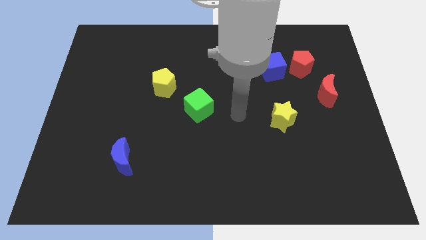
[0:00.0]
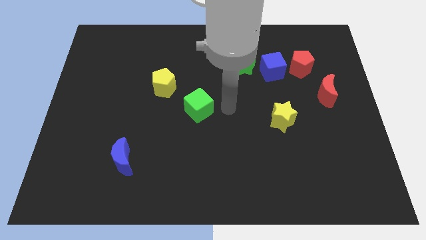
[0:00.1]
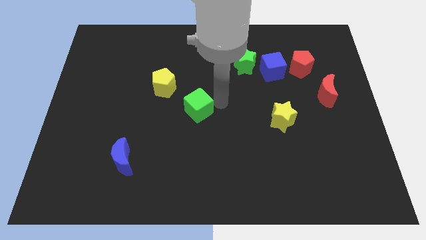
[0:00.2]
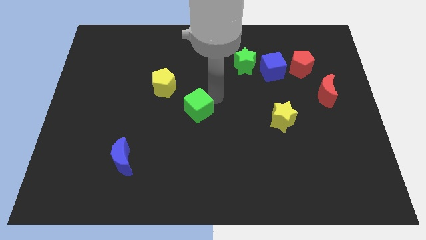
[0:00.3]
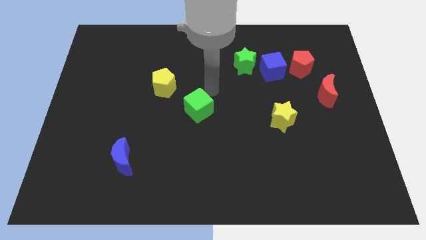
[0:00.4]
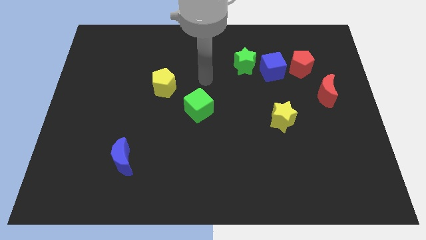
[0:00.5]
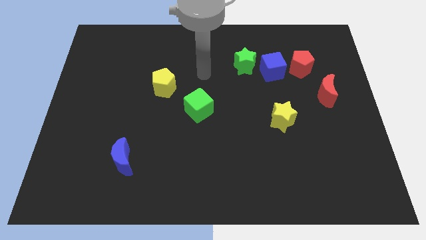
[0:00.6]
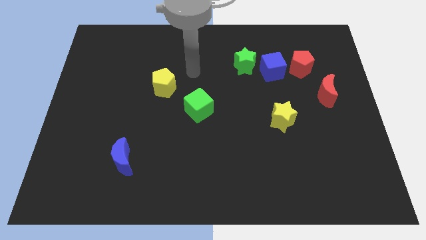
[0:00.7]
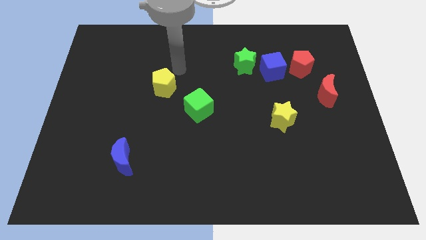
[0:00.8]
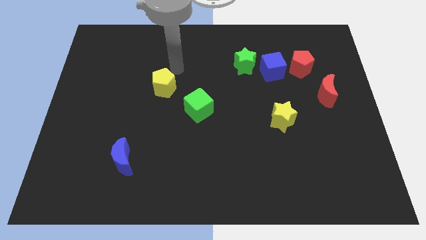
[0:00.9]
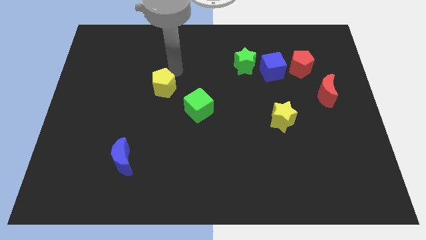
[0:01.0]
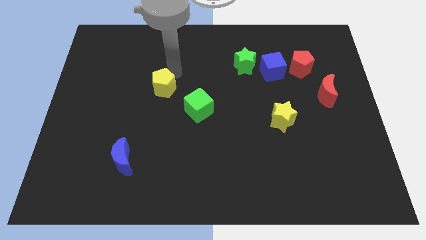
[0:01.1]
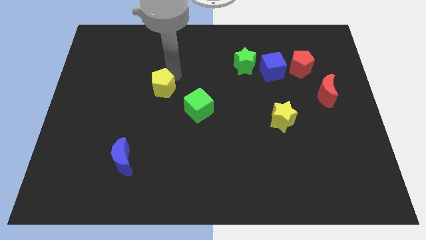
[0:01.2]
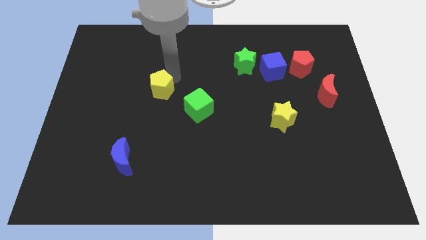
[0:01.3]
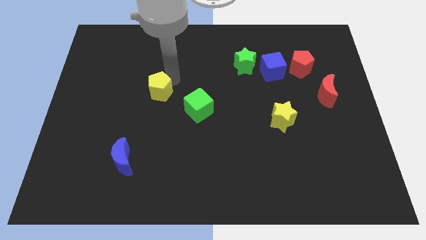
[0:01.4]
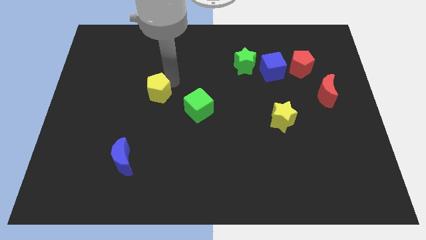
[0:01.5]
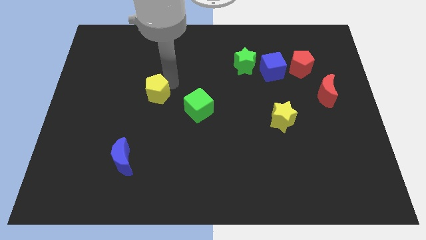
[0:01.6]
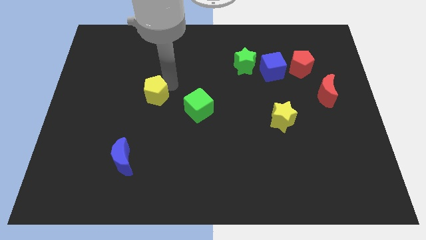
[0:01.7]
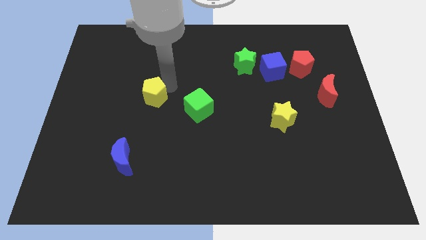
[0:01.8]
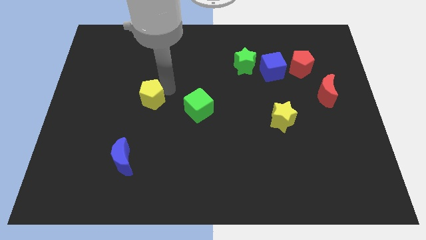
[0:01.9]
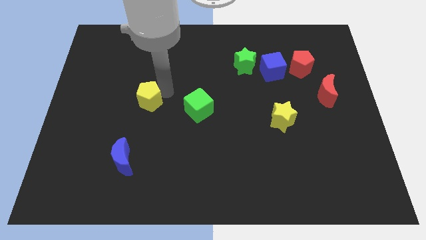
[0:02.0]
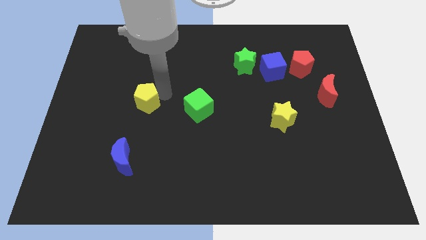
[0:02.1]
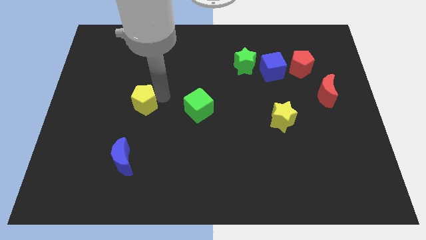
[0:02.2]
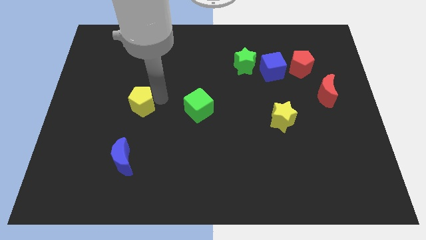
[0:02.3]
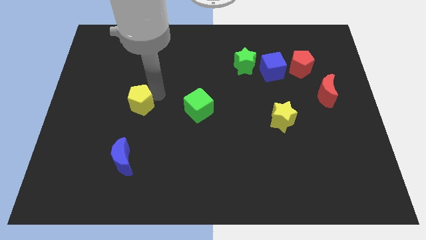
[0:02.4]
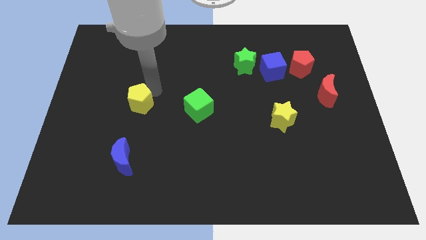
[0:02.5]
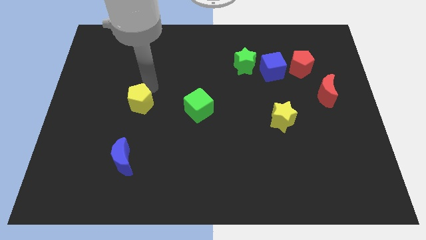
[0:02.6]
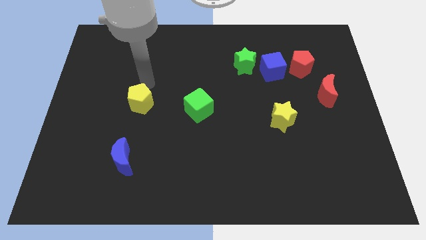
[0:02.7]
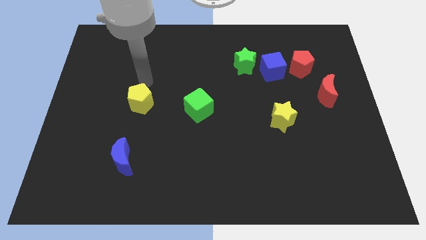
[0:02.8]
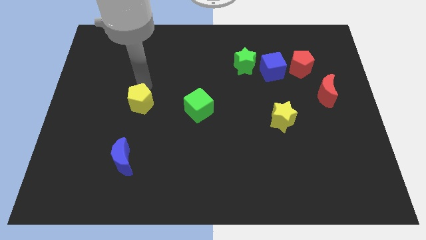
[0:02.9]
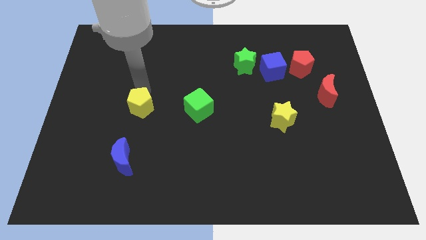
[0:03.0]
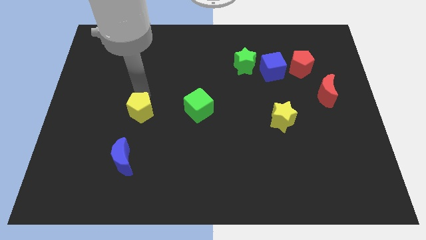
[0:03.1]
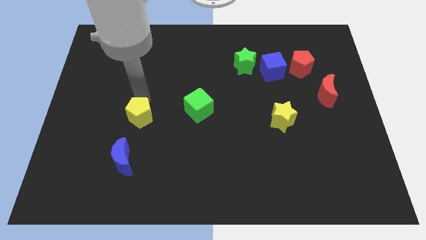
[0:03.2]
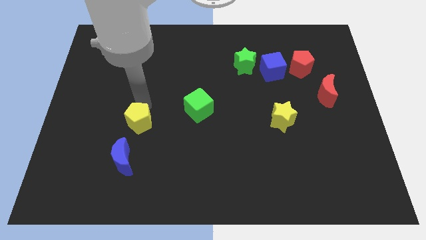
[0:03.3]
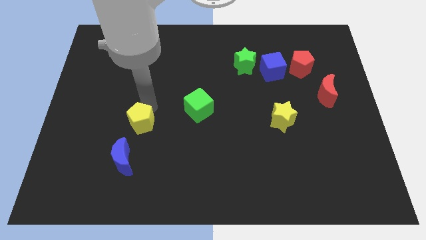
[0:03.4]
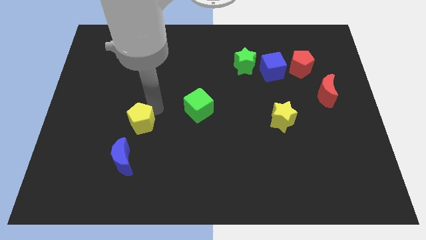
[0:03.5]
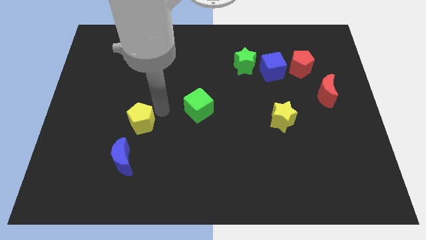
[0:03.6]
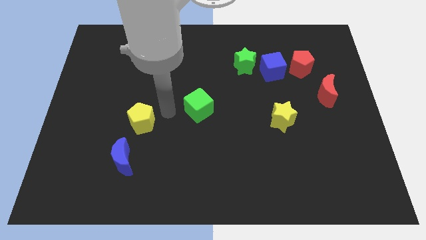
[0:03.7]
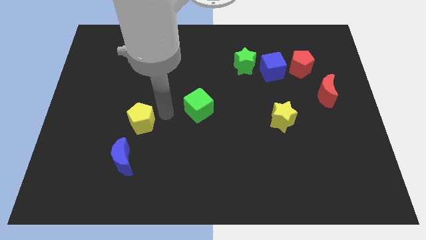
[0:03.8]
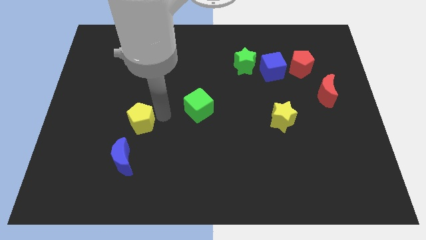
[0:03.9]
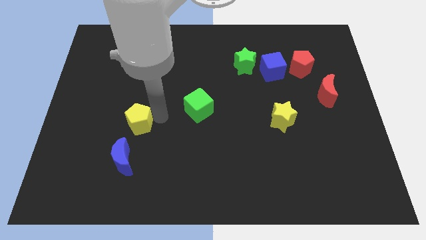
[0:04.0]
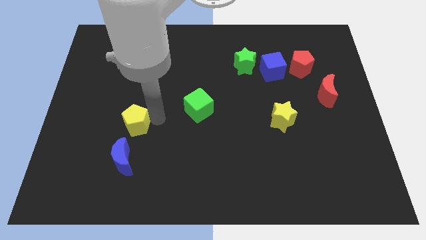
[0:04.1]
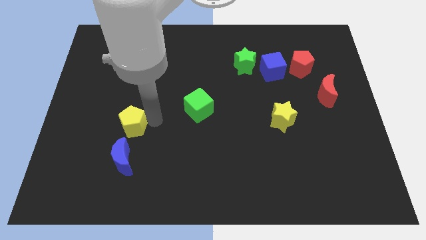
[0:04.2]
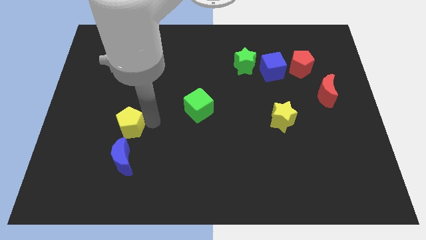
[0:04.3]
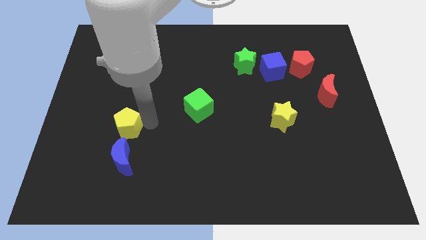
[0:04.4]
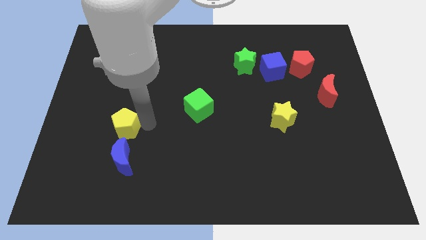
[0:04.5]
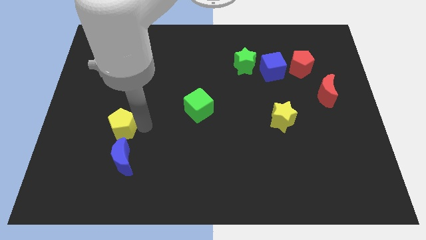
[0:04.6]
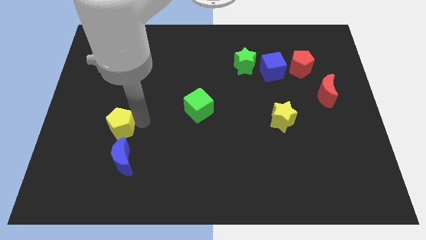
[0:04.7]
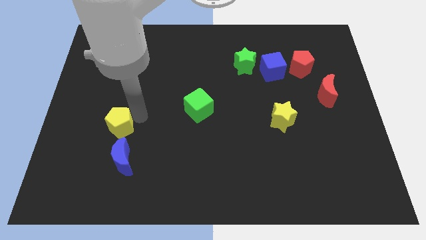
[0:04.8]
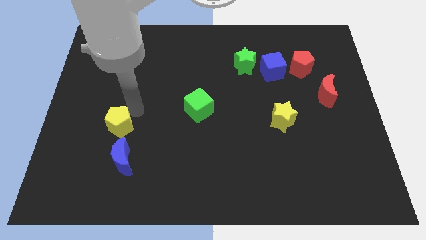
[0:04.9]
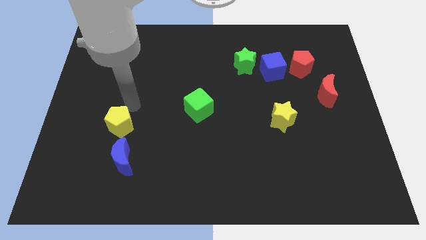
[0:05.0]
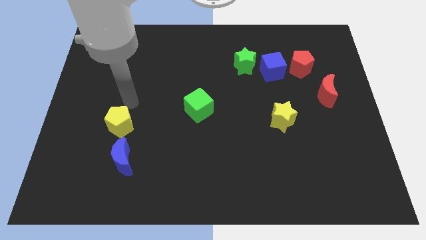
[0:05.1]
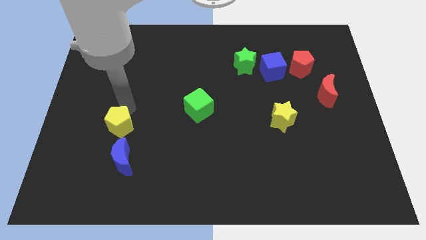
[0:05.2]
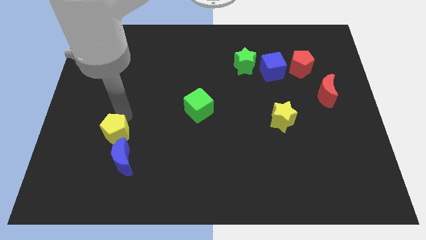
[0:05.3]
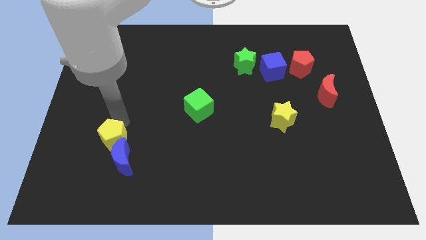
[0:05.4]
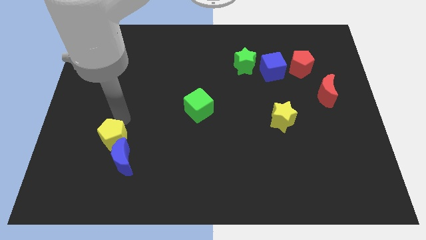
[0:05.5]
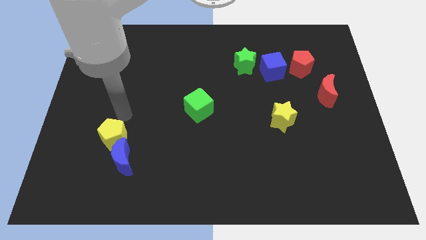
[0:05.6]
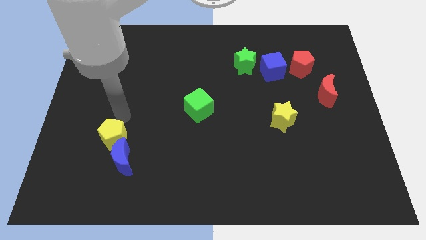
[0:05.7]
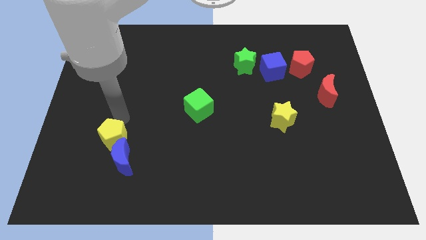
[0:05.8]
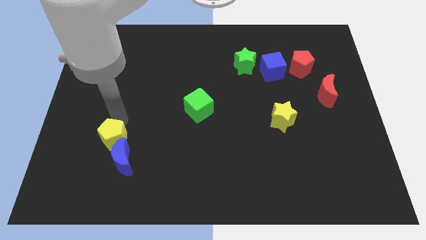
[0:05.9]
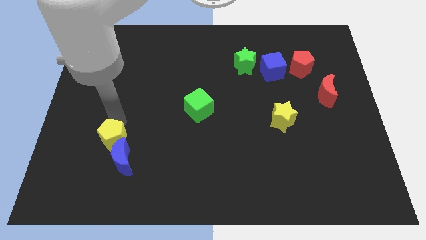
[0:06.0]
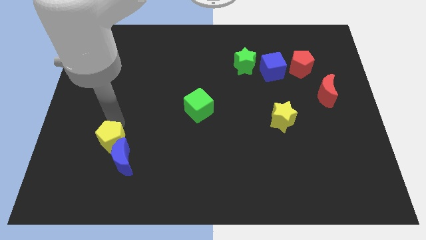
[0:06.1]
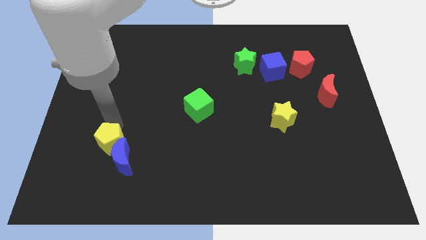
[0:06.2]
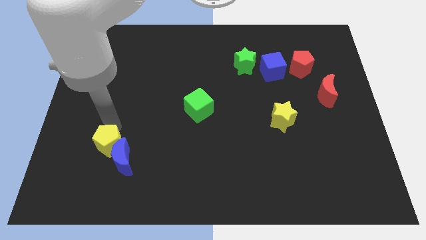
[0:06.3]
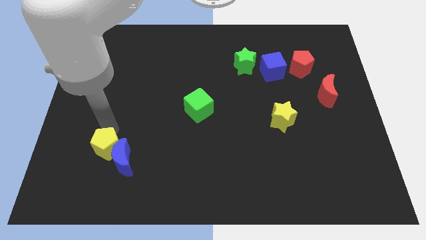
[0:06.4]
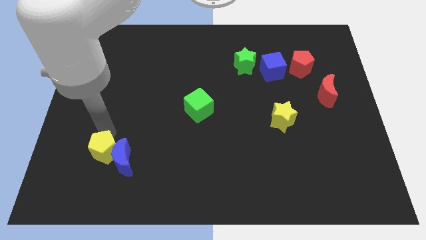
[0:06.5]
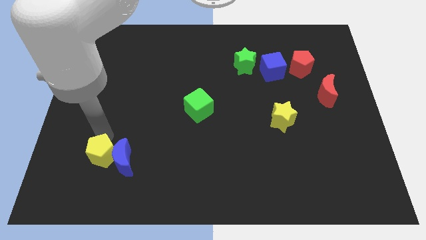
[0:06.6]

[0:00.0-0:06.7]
move the yellow pentagon to the bottom left side of the blue moon
